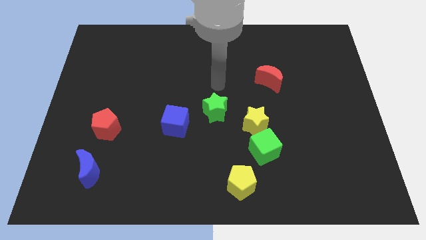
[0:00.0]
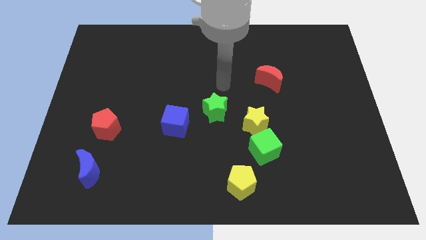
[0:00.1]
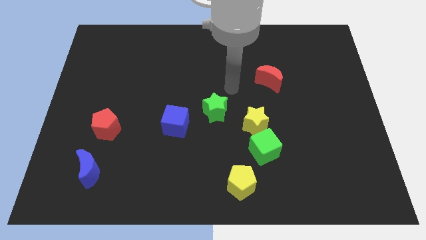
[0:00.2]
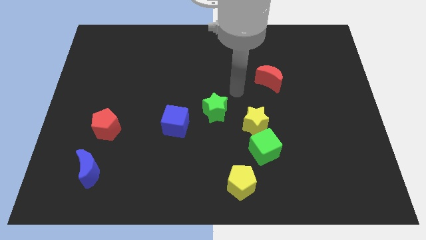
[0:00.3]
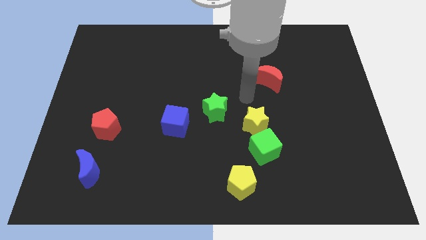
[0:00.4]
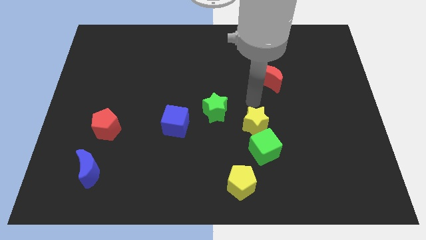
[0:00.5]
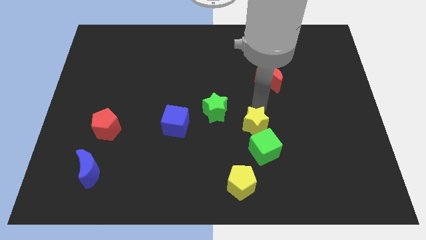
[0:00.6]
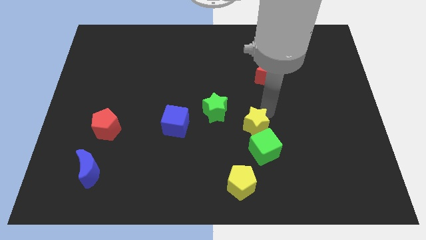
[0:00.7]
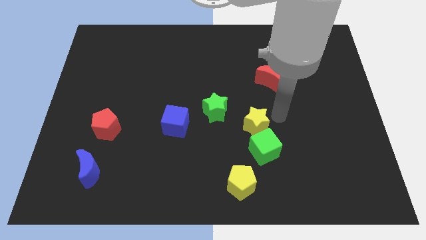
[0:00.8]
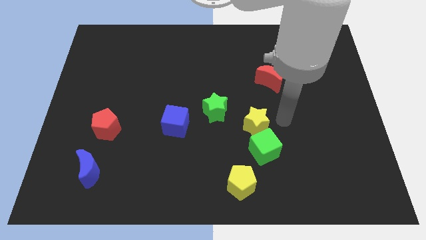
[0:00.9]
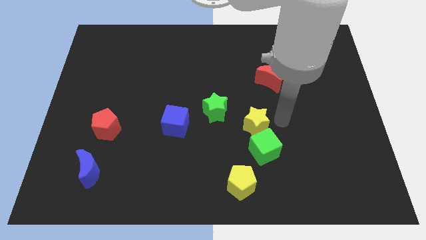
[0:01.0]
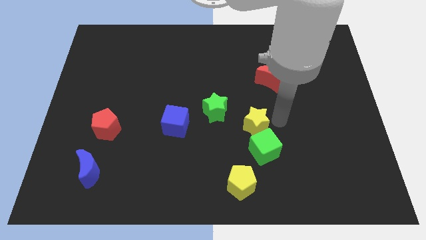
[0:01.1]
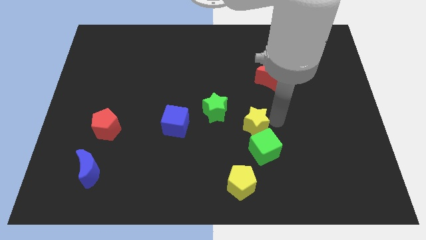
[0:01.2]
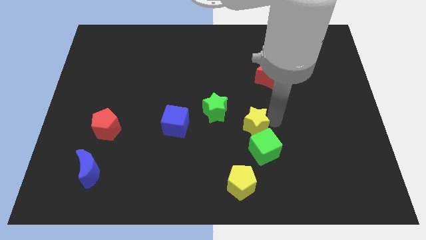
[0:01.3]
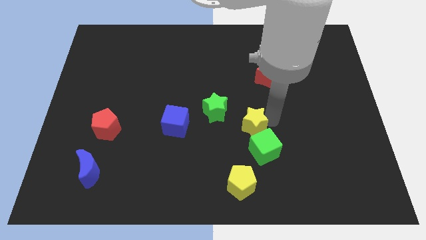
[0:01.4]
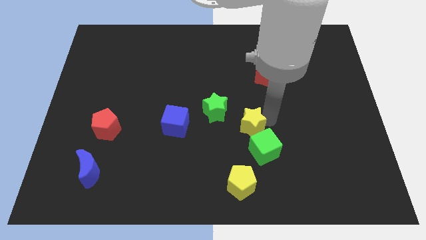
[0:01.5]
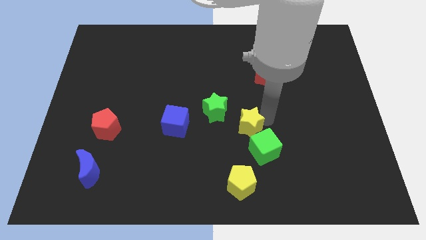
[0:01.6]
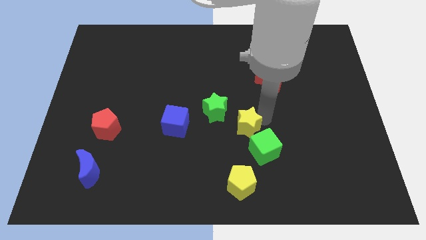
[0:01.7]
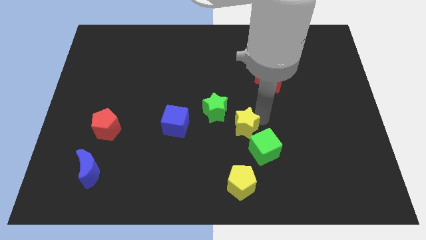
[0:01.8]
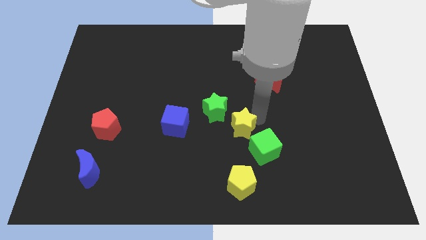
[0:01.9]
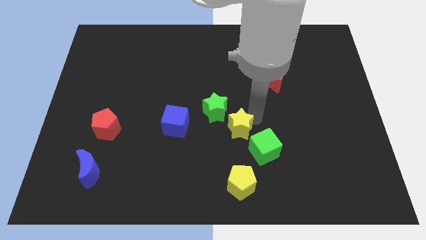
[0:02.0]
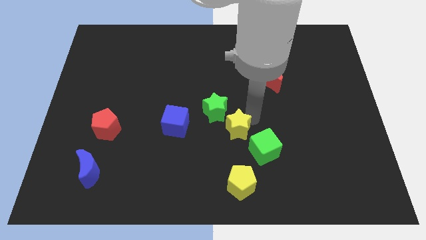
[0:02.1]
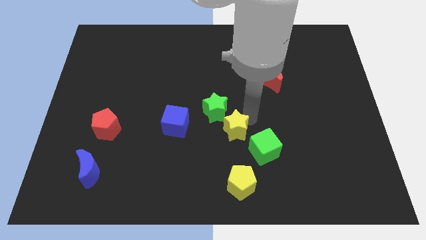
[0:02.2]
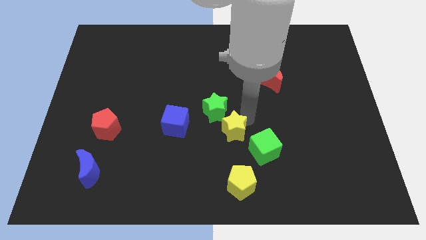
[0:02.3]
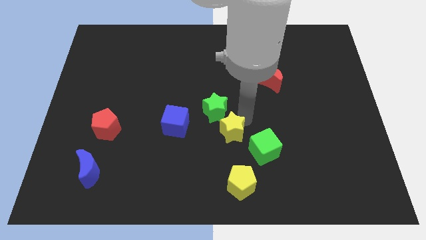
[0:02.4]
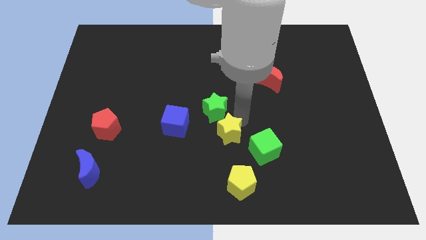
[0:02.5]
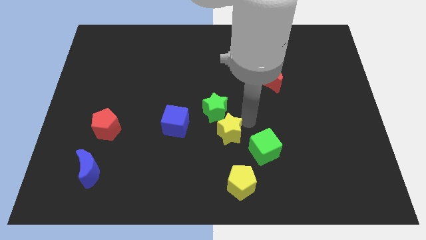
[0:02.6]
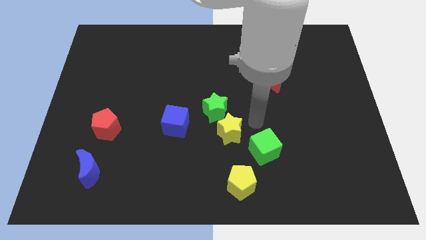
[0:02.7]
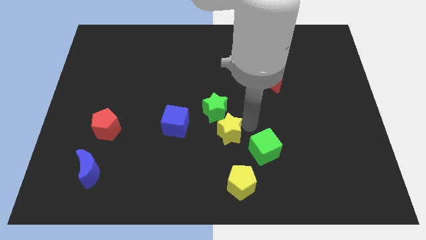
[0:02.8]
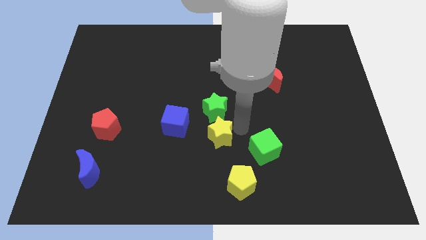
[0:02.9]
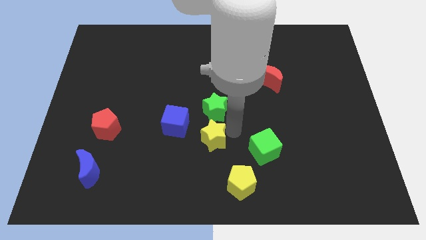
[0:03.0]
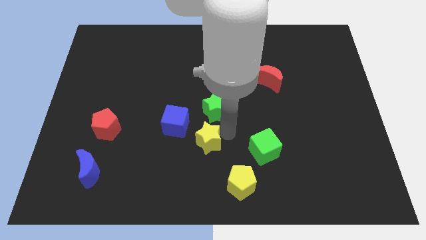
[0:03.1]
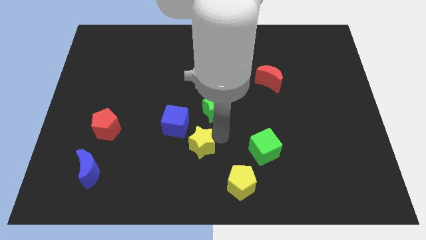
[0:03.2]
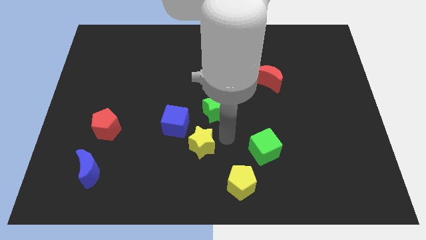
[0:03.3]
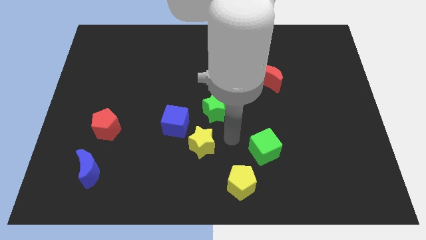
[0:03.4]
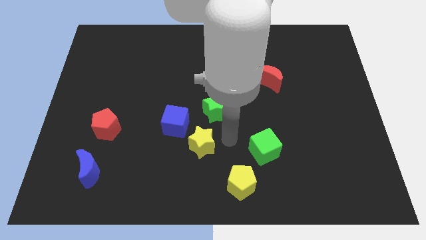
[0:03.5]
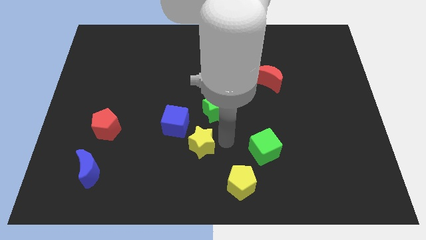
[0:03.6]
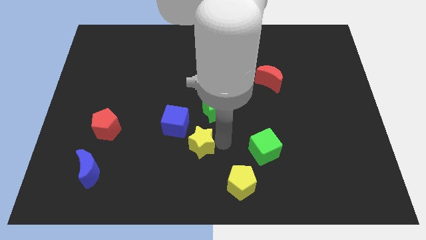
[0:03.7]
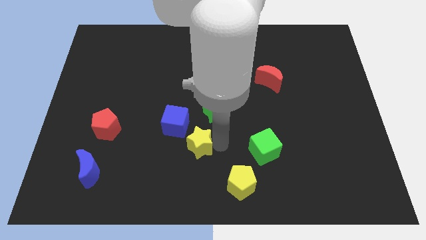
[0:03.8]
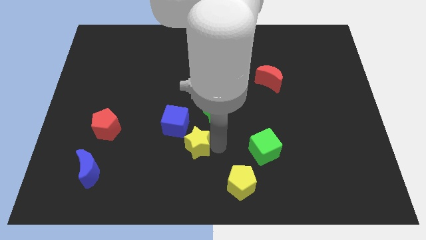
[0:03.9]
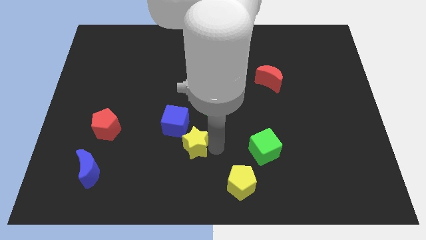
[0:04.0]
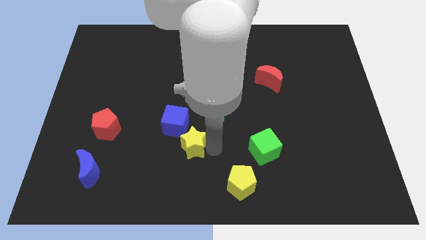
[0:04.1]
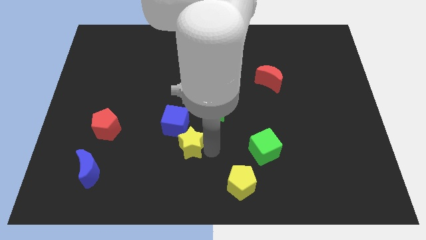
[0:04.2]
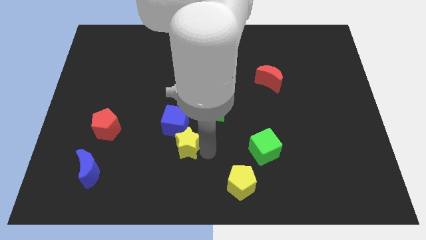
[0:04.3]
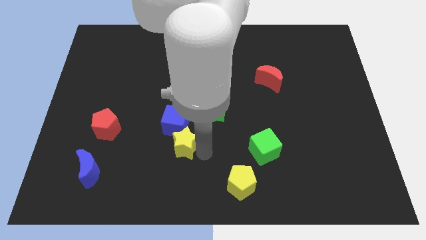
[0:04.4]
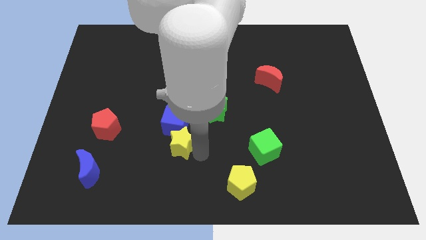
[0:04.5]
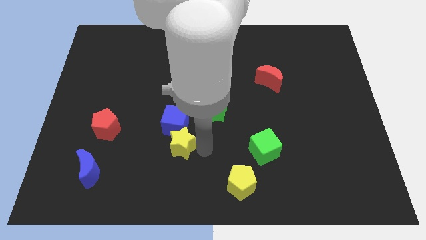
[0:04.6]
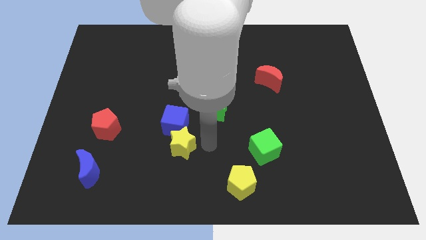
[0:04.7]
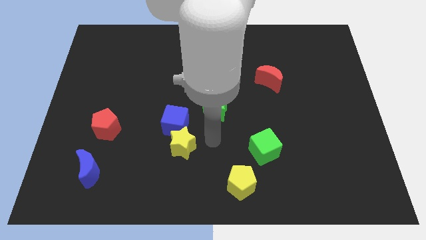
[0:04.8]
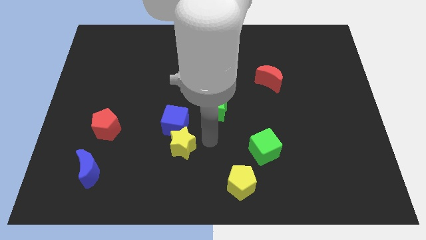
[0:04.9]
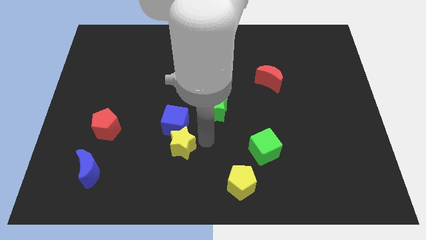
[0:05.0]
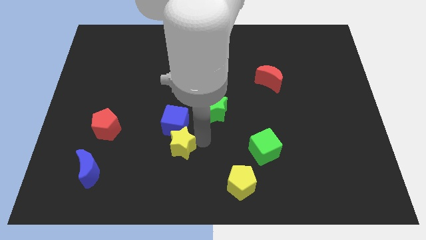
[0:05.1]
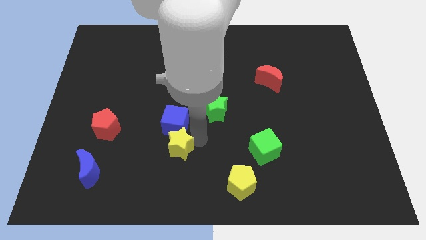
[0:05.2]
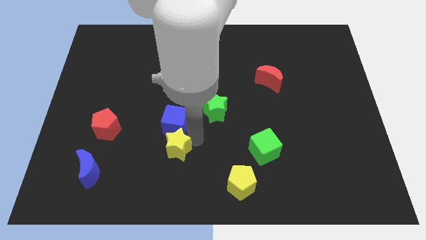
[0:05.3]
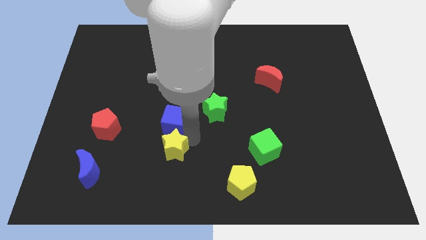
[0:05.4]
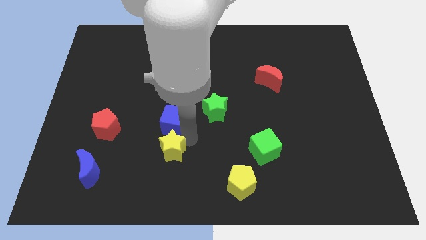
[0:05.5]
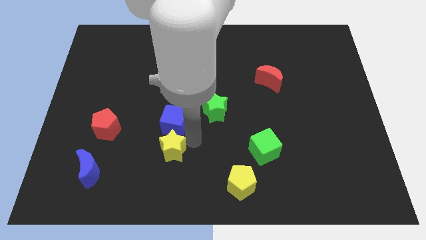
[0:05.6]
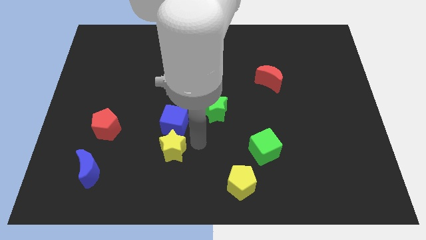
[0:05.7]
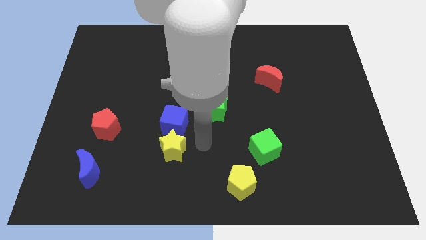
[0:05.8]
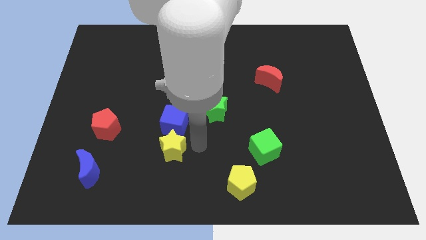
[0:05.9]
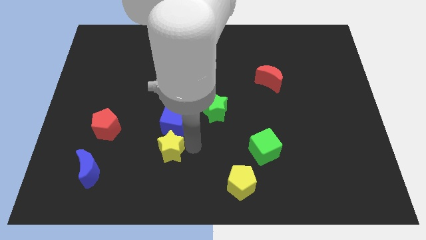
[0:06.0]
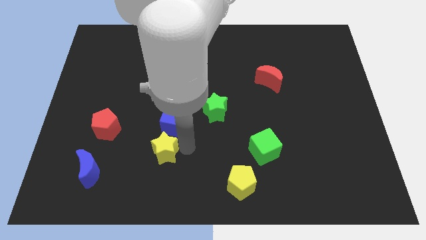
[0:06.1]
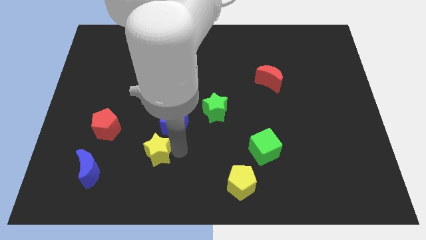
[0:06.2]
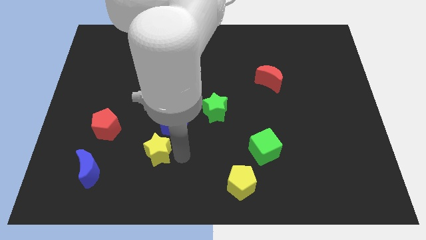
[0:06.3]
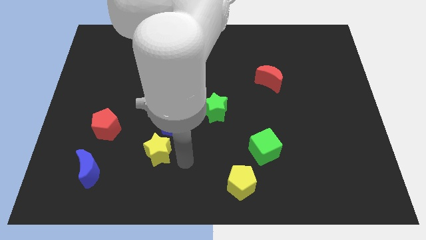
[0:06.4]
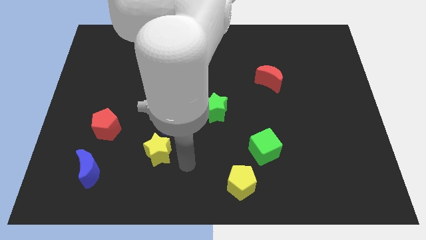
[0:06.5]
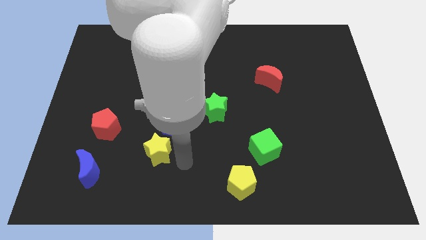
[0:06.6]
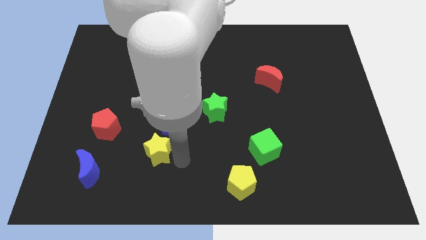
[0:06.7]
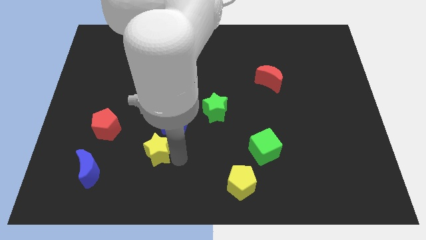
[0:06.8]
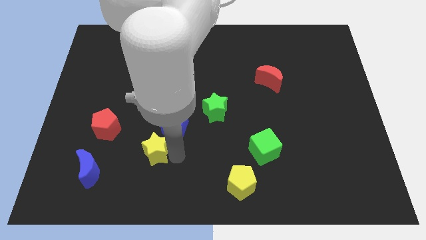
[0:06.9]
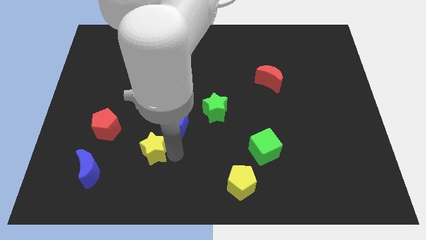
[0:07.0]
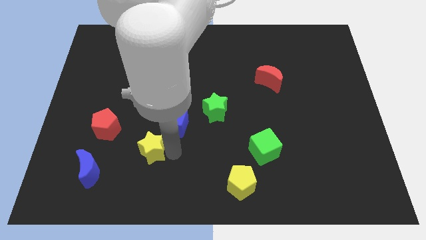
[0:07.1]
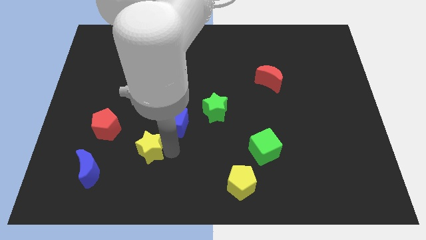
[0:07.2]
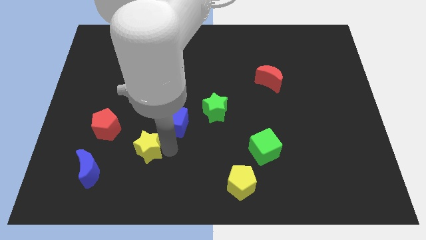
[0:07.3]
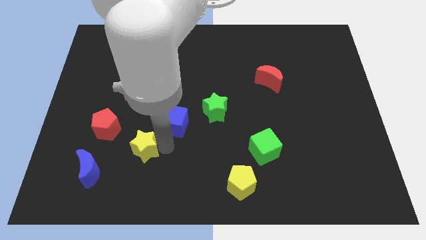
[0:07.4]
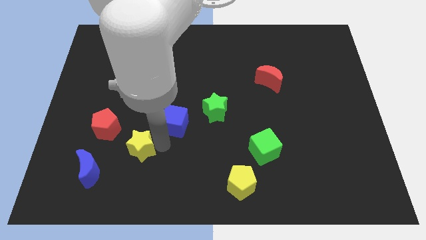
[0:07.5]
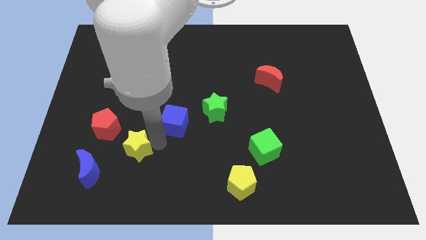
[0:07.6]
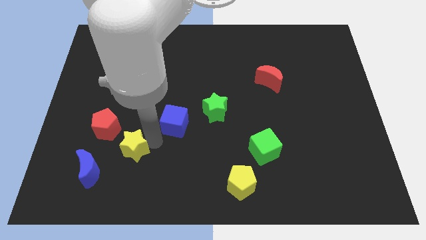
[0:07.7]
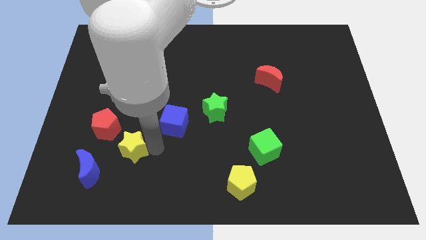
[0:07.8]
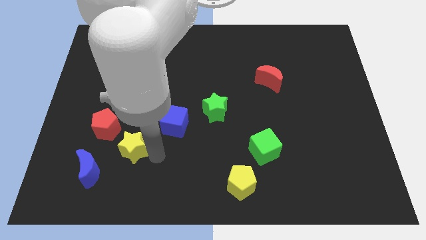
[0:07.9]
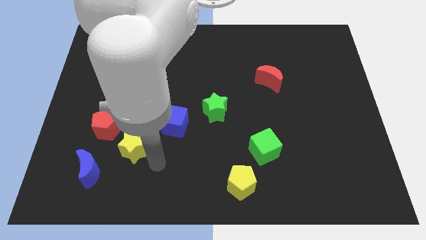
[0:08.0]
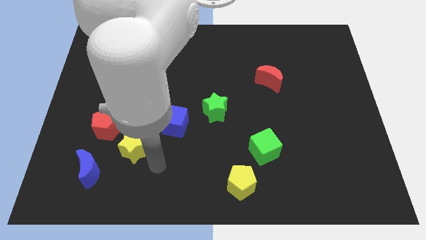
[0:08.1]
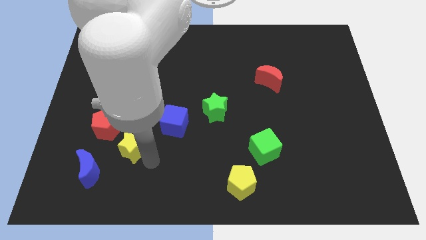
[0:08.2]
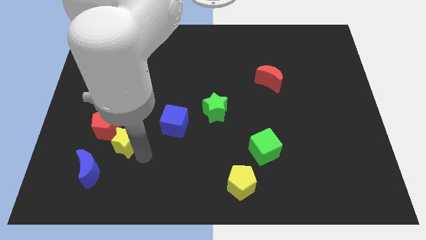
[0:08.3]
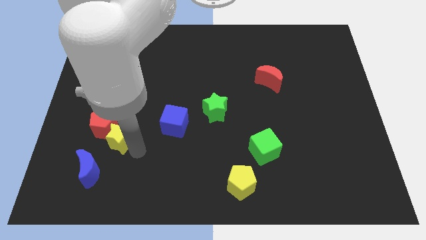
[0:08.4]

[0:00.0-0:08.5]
move the yellow star towards the red pentagon
